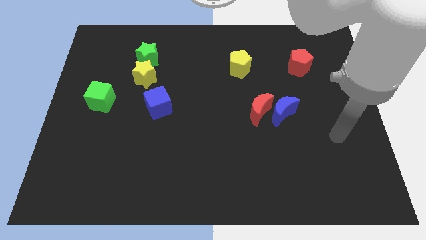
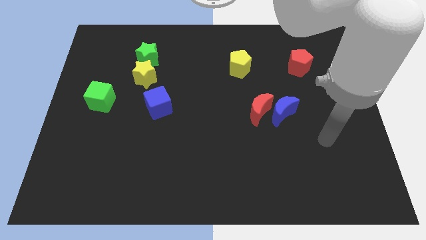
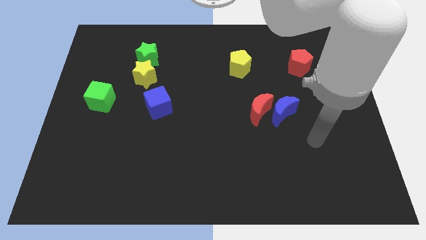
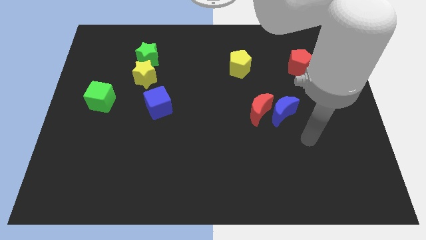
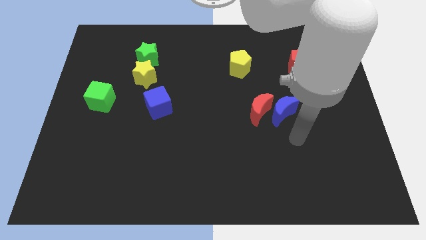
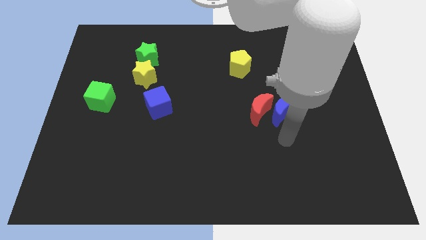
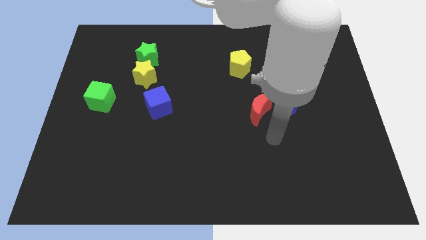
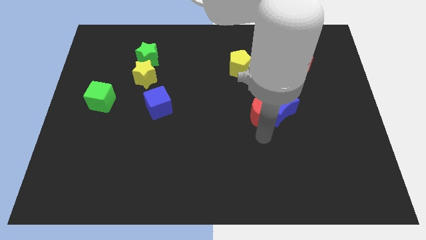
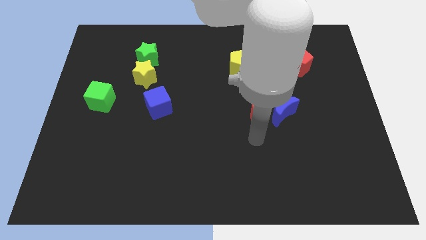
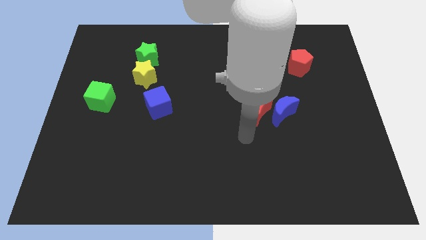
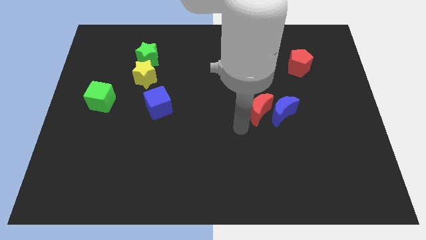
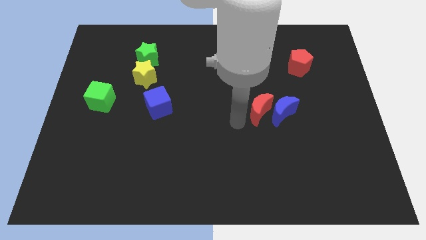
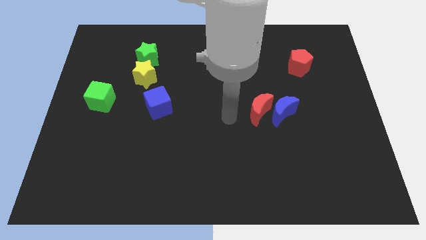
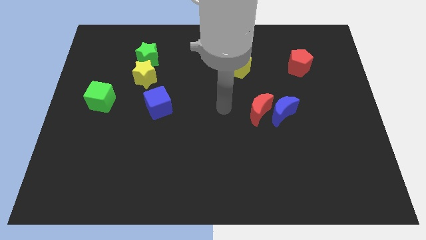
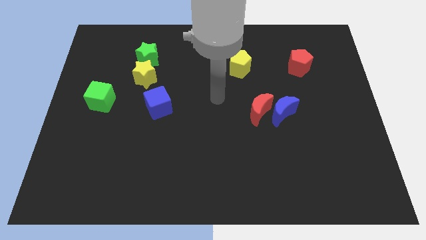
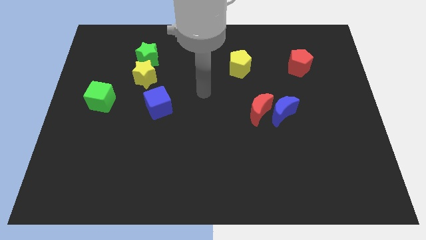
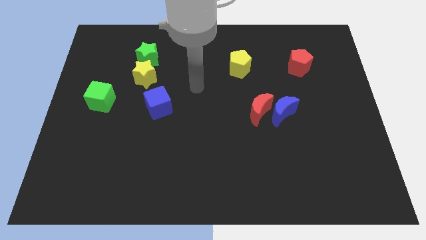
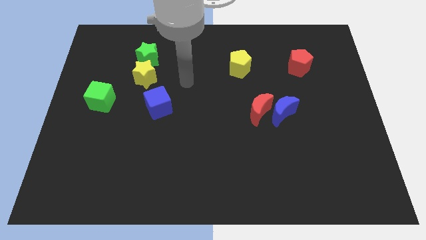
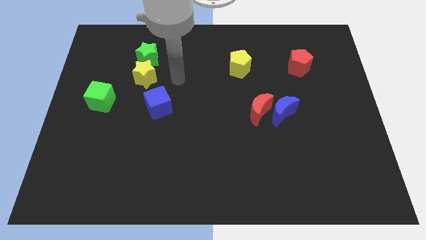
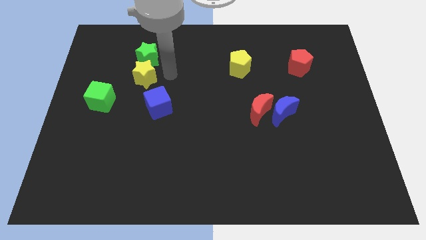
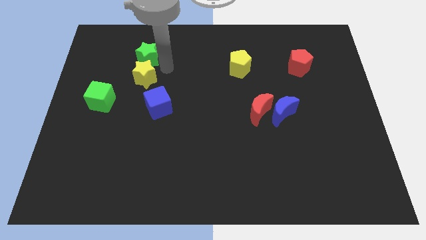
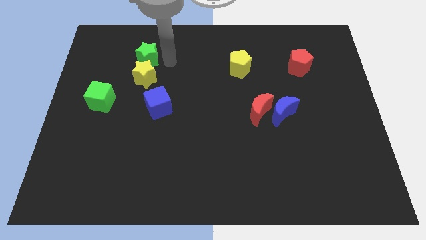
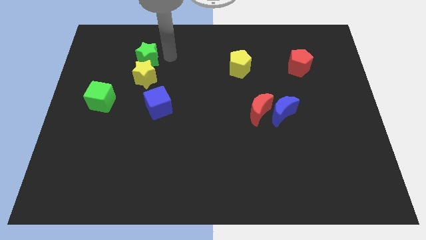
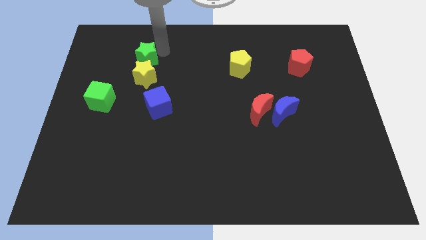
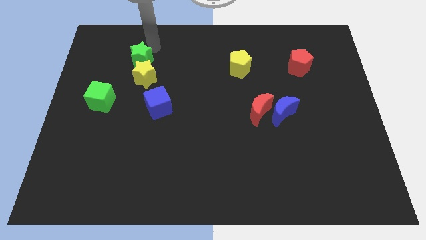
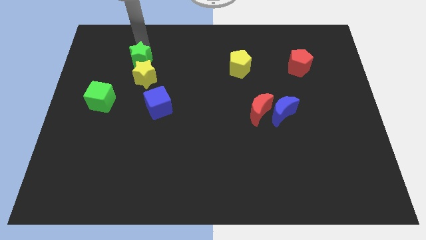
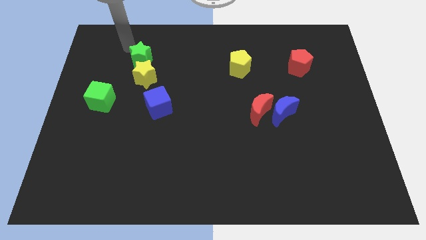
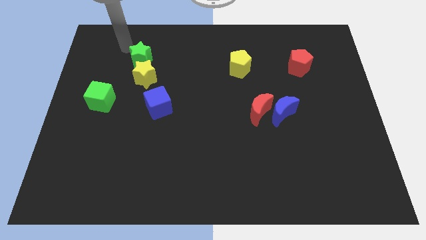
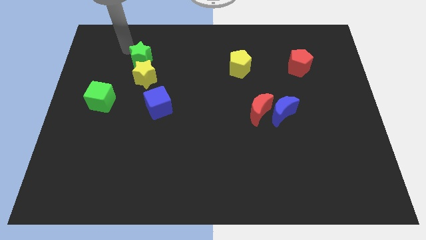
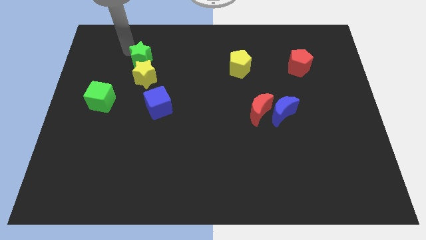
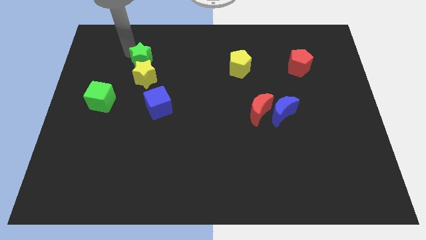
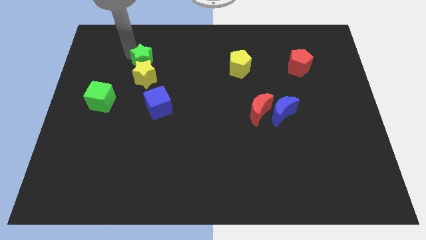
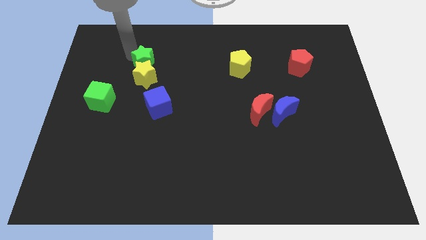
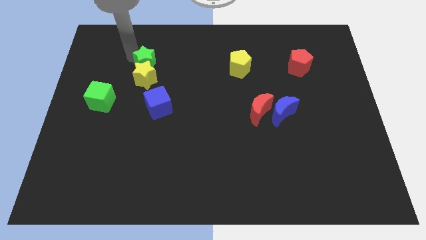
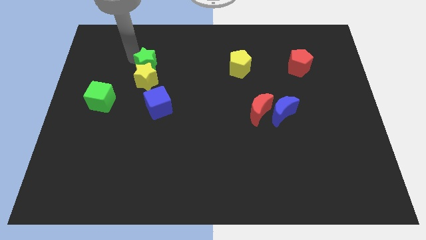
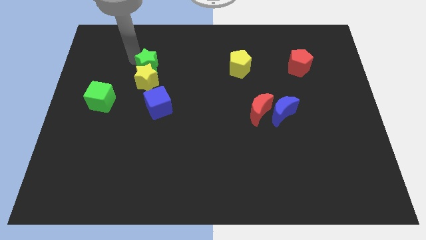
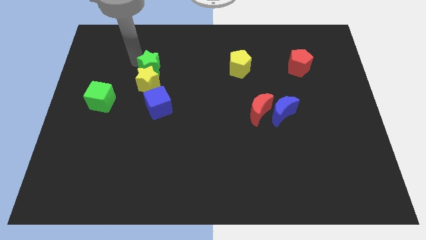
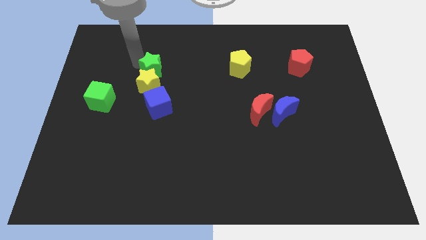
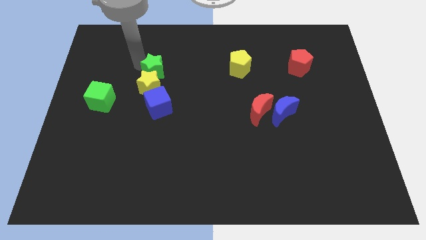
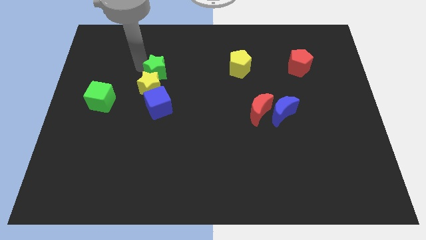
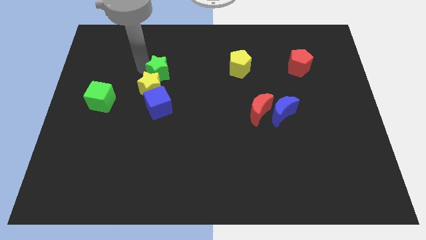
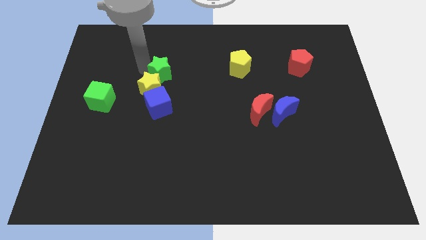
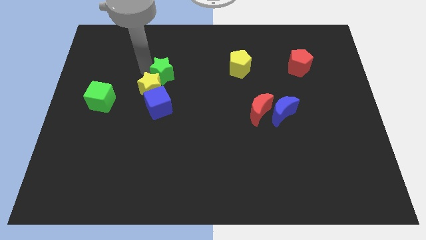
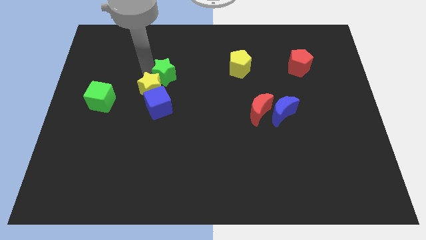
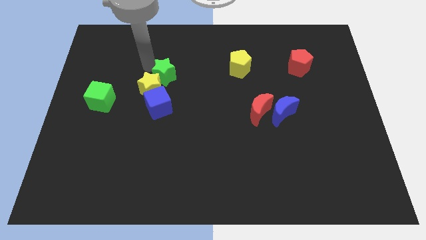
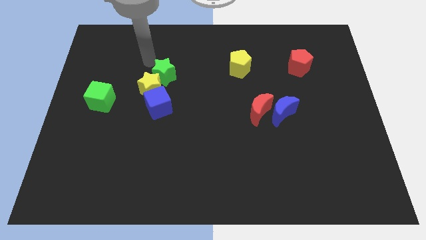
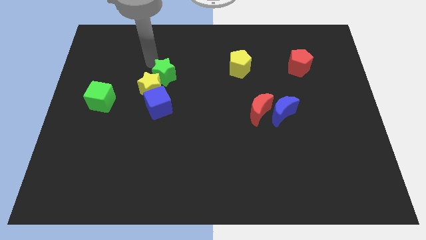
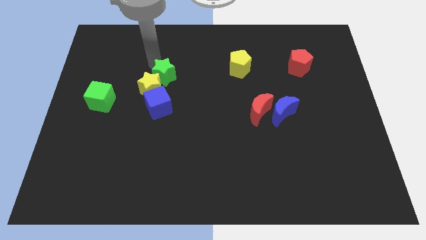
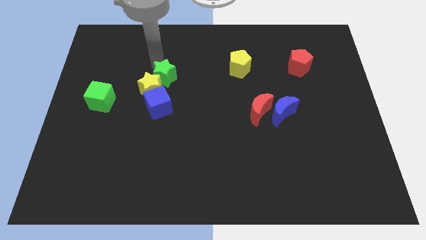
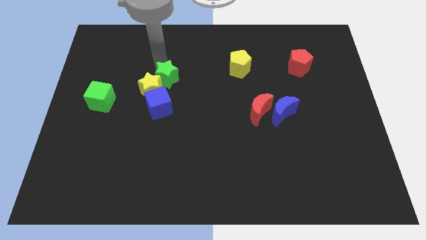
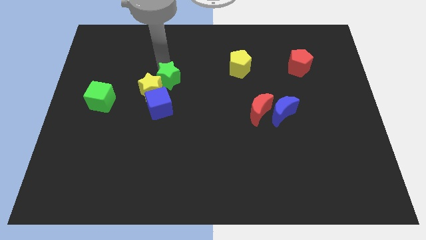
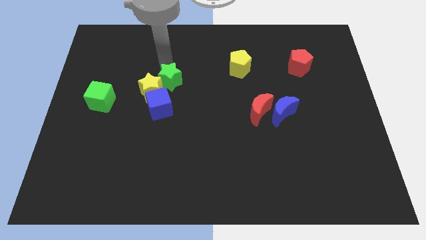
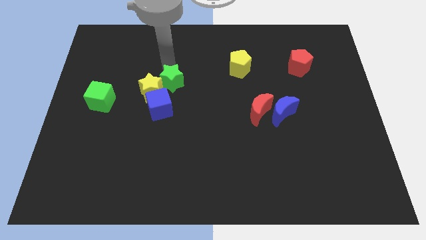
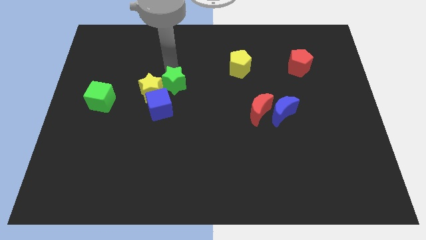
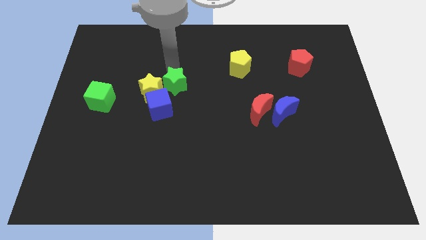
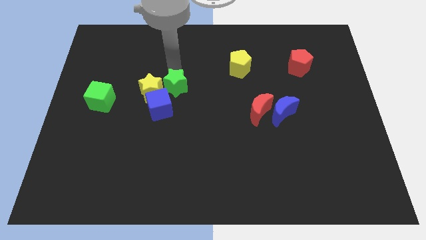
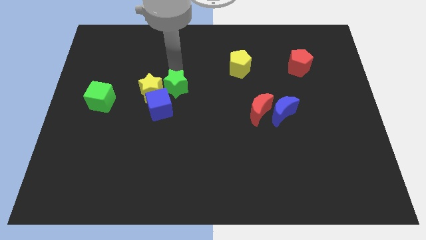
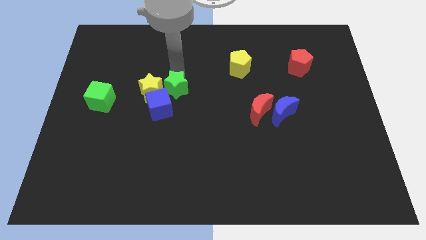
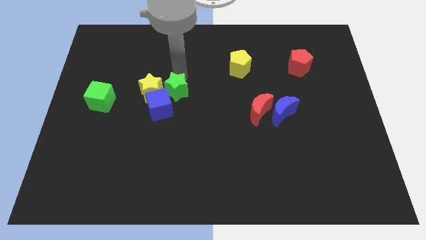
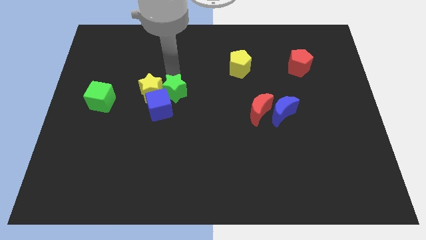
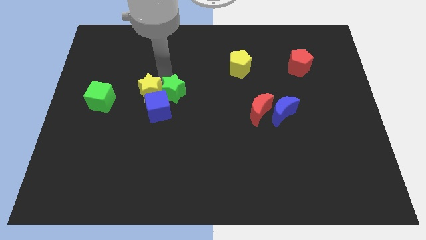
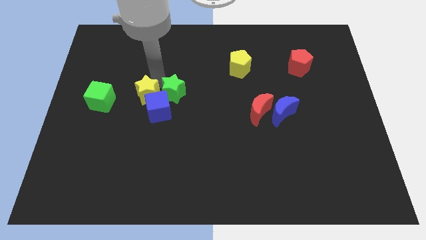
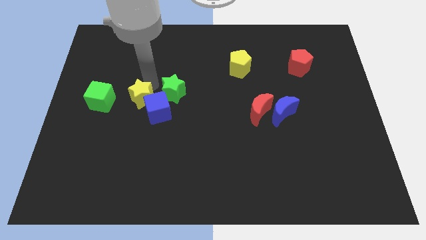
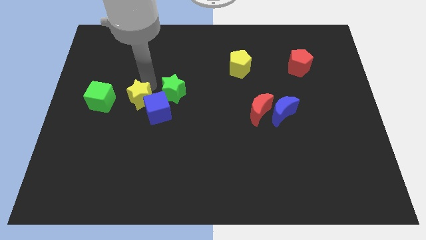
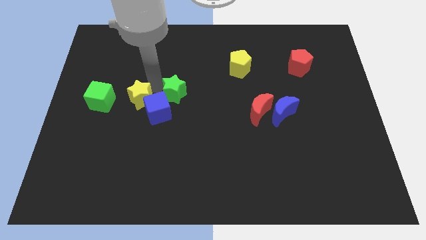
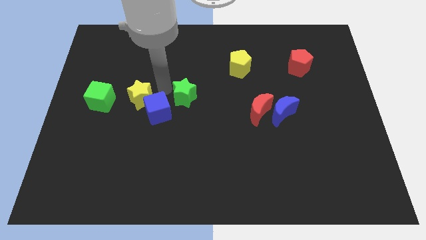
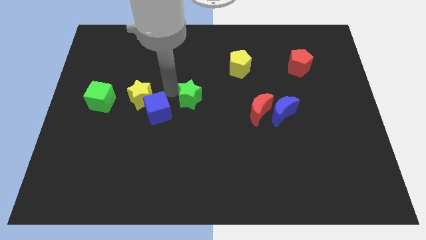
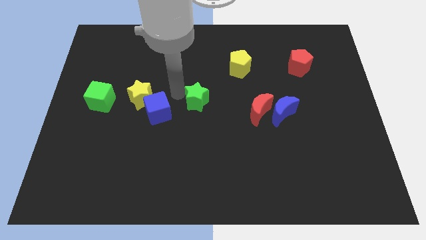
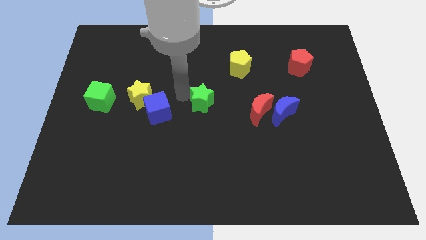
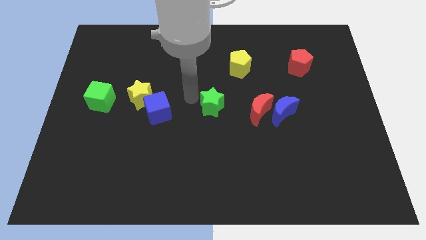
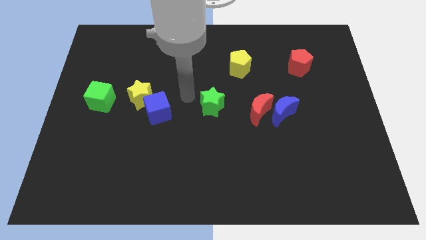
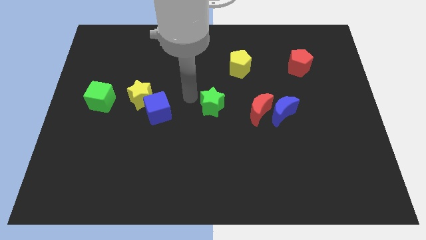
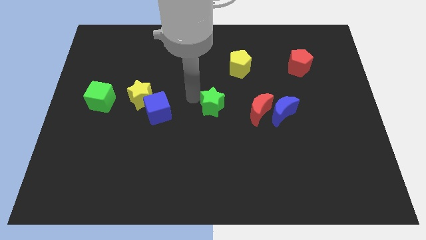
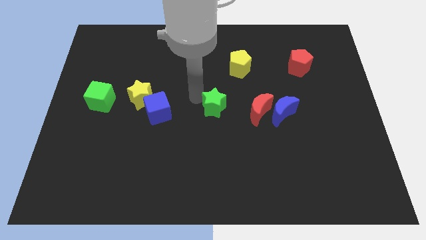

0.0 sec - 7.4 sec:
move the green star to the left side of the blue moon

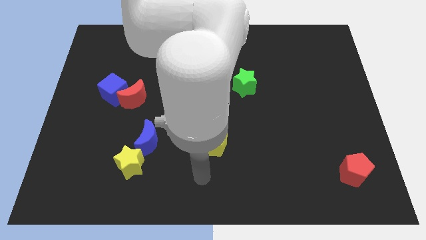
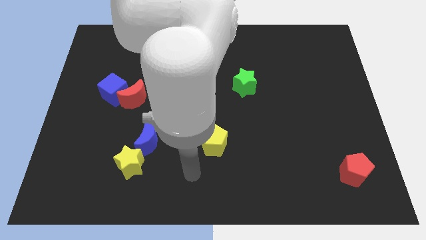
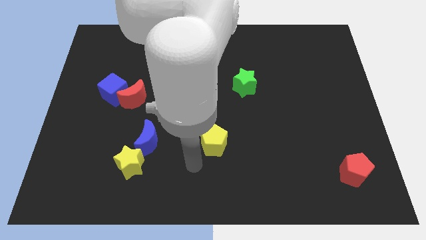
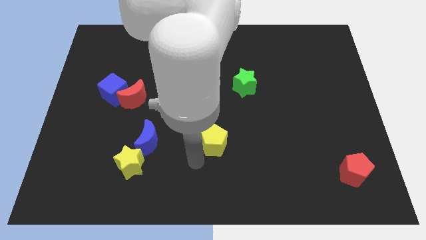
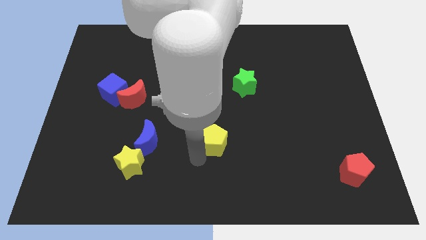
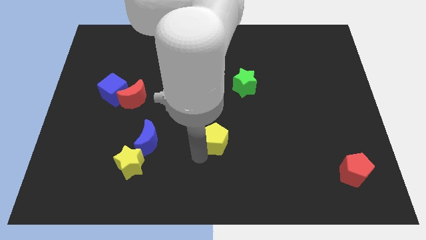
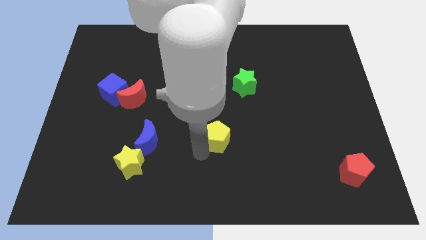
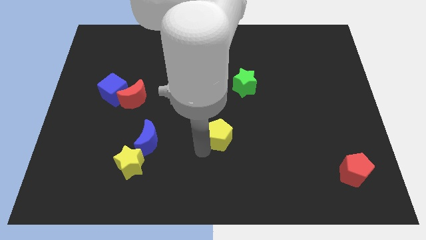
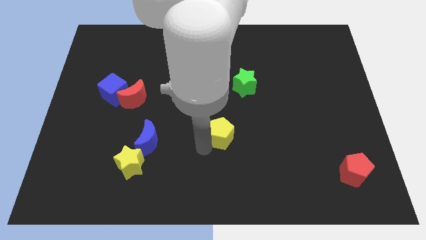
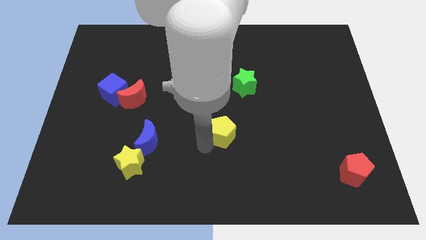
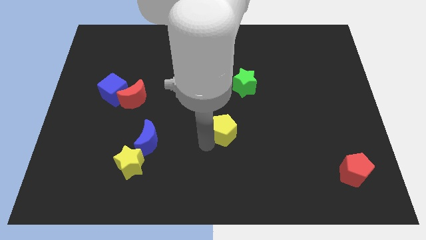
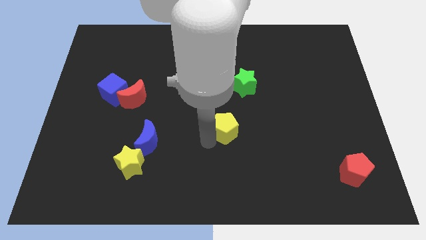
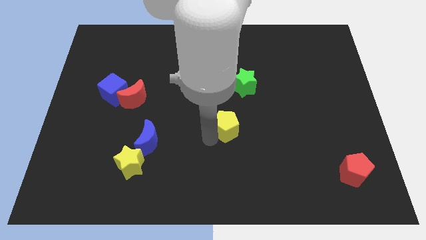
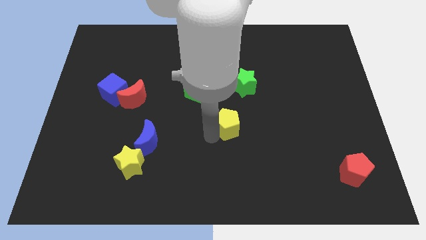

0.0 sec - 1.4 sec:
move the yellow pentagon below the green star
